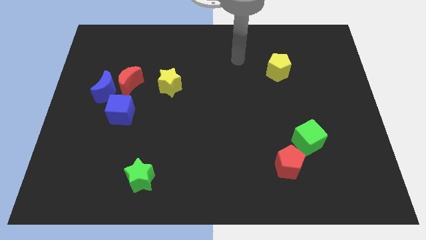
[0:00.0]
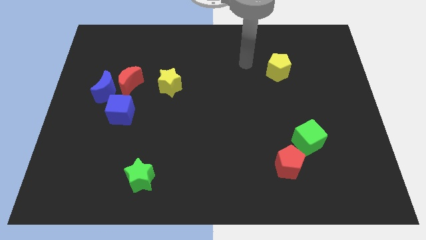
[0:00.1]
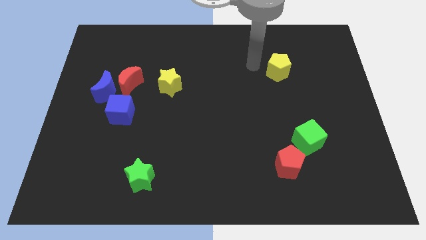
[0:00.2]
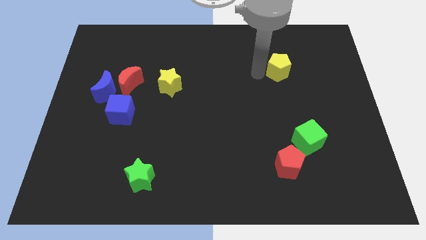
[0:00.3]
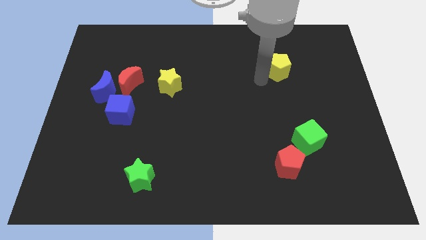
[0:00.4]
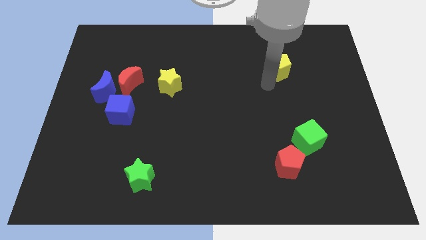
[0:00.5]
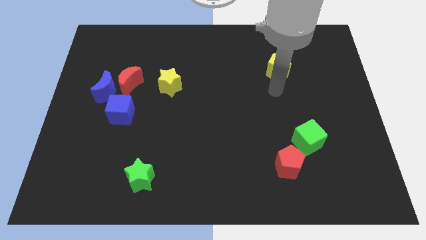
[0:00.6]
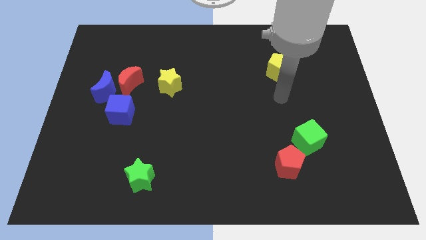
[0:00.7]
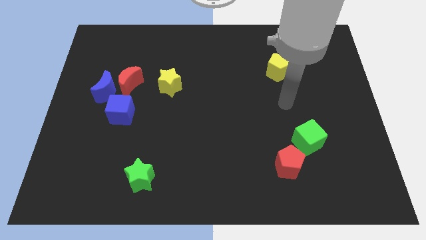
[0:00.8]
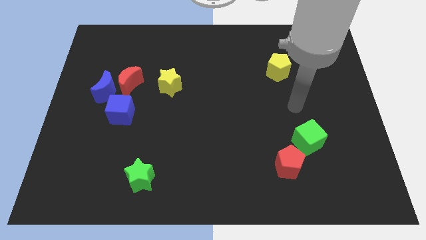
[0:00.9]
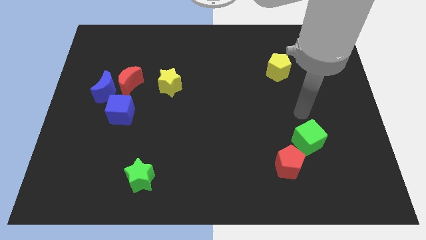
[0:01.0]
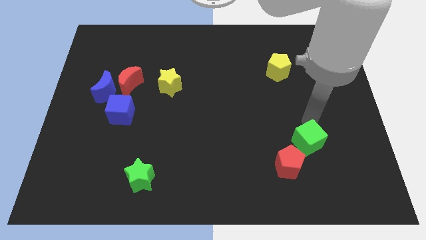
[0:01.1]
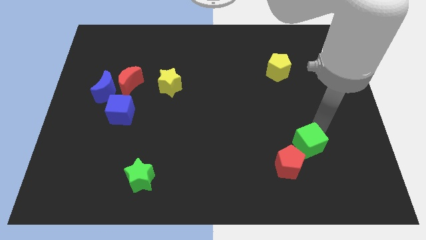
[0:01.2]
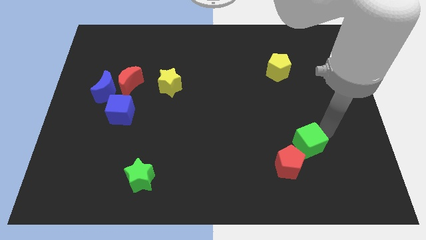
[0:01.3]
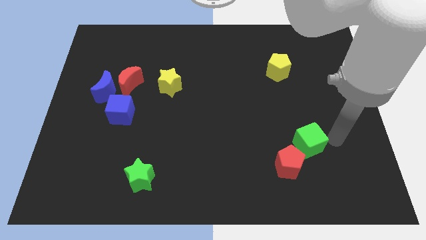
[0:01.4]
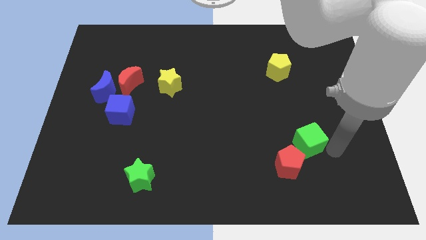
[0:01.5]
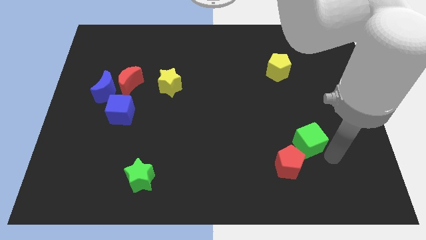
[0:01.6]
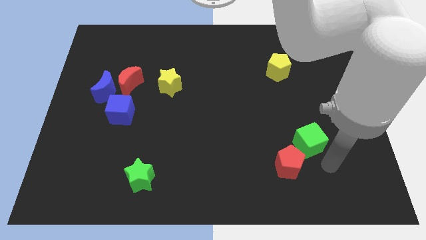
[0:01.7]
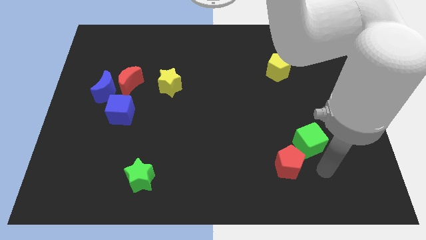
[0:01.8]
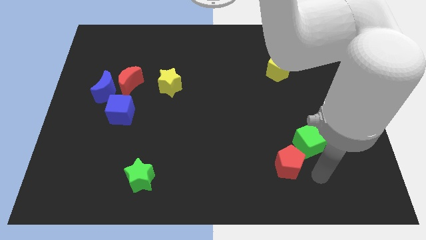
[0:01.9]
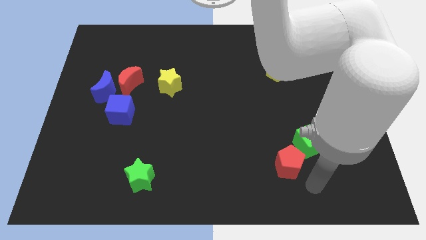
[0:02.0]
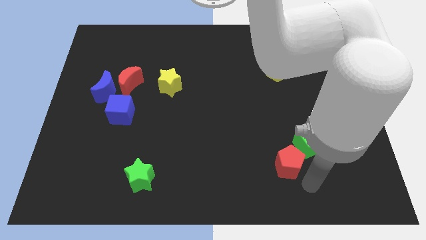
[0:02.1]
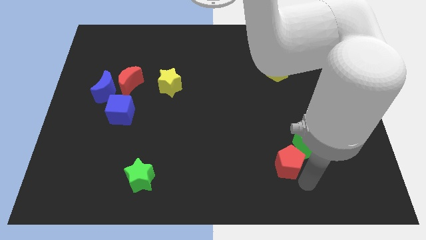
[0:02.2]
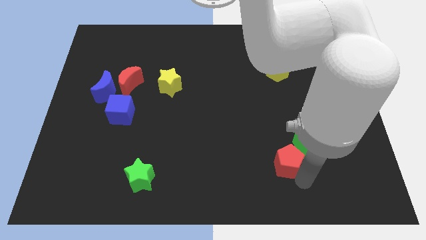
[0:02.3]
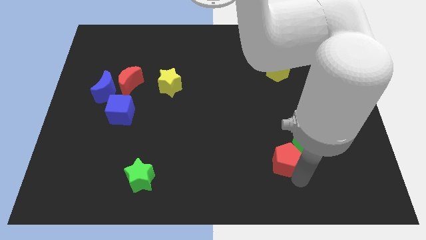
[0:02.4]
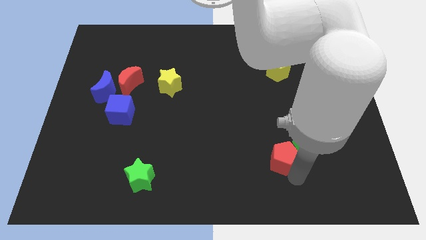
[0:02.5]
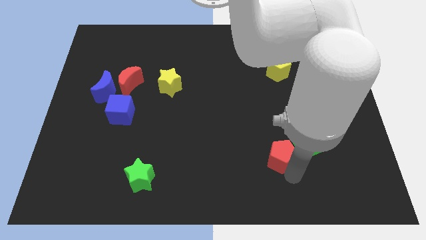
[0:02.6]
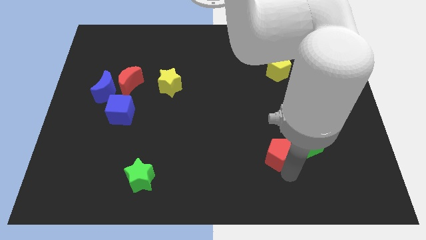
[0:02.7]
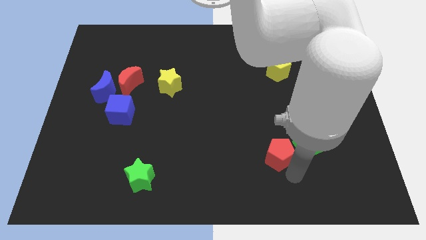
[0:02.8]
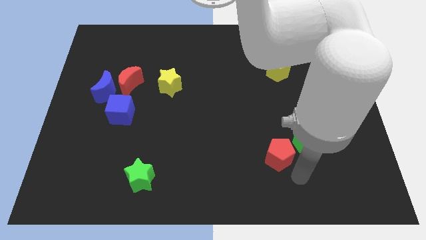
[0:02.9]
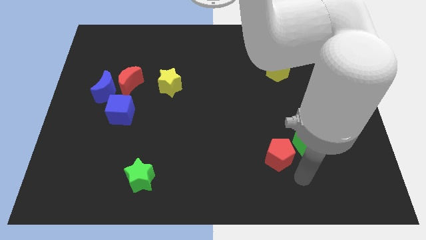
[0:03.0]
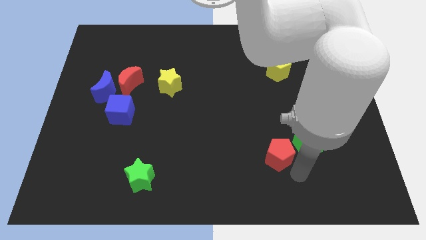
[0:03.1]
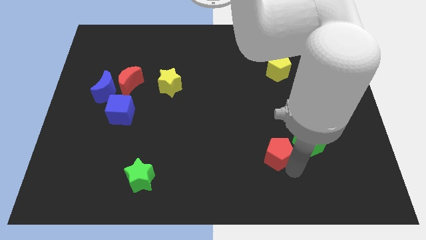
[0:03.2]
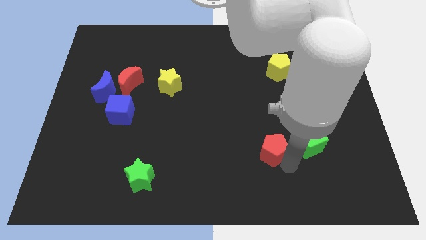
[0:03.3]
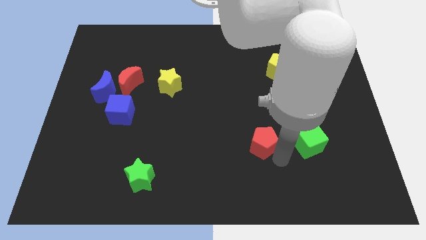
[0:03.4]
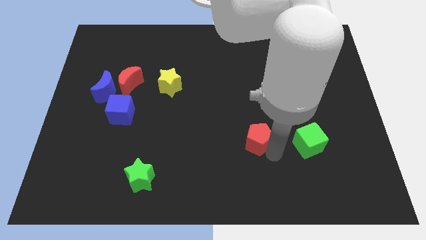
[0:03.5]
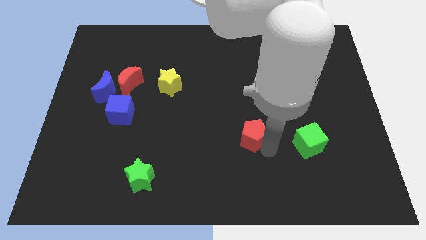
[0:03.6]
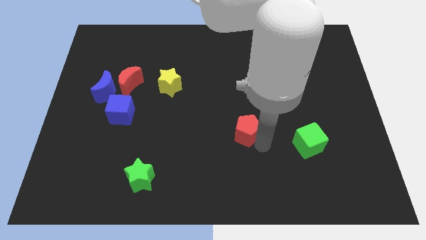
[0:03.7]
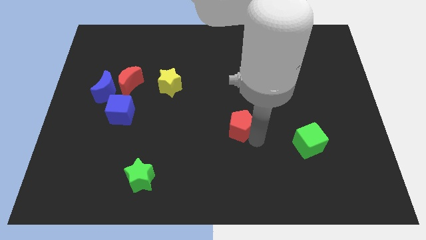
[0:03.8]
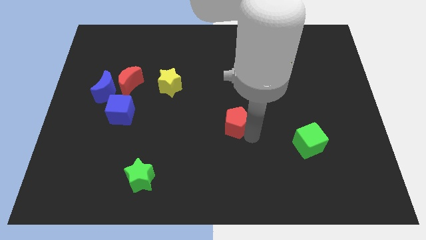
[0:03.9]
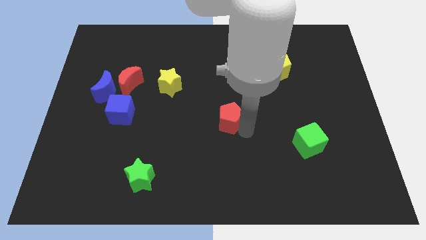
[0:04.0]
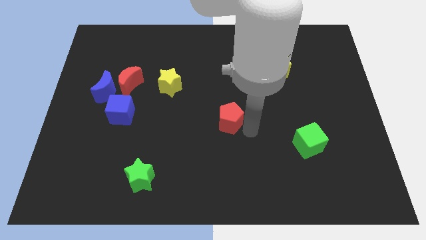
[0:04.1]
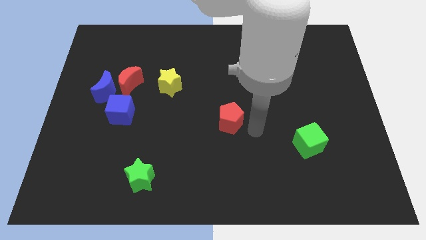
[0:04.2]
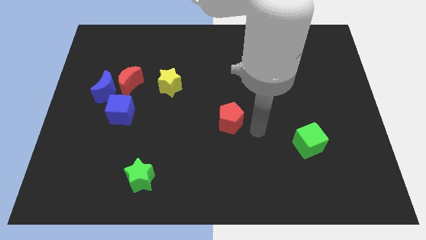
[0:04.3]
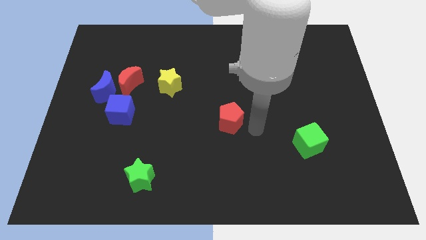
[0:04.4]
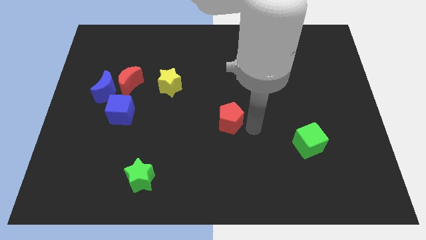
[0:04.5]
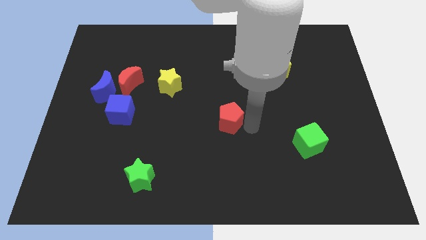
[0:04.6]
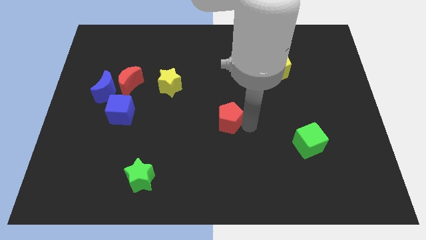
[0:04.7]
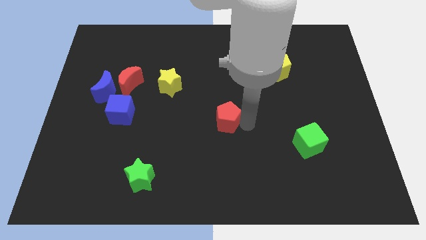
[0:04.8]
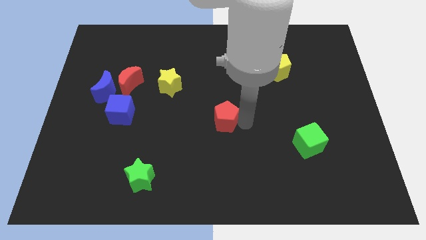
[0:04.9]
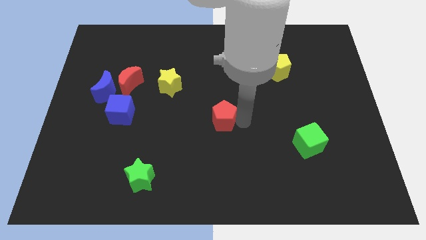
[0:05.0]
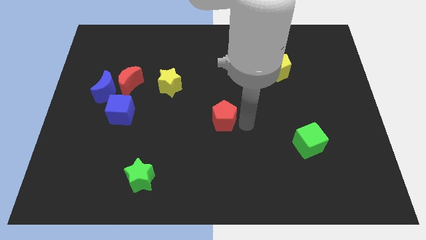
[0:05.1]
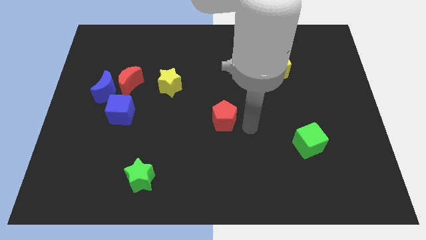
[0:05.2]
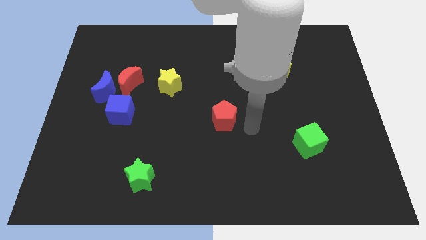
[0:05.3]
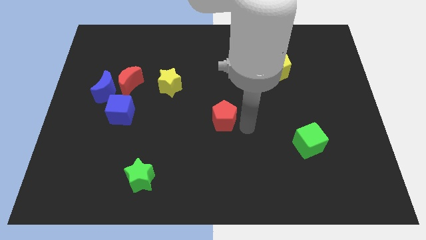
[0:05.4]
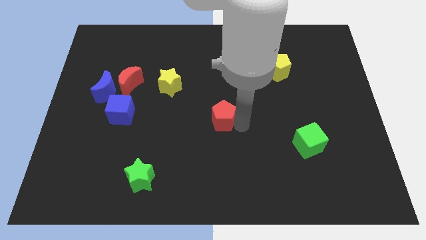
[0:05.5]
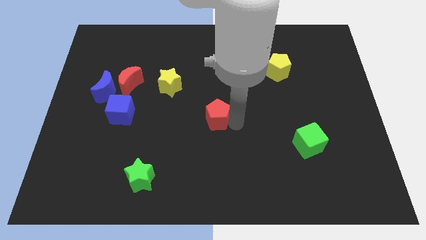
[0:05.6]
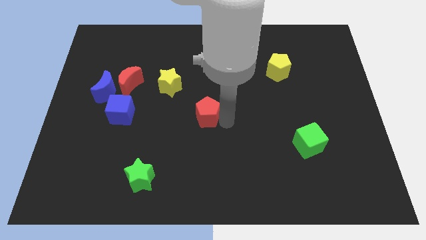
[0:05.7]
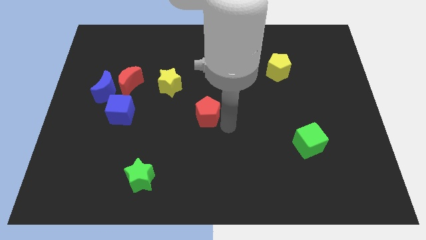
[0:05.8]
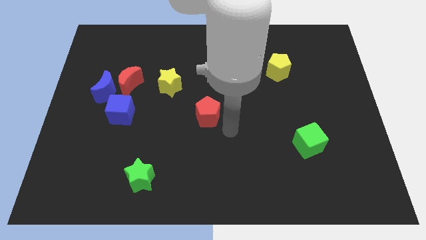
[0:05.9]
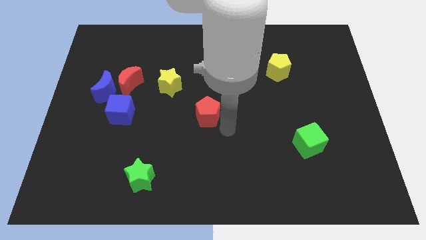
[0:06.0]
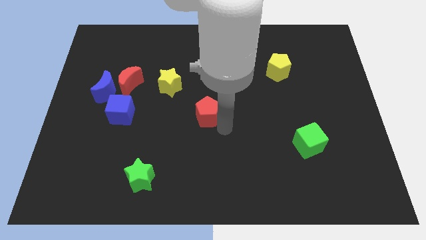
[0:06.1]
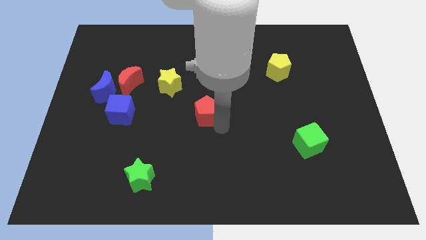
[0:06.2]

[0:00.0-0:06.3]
push the red pentagon to the bottom right side of the yellow star

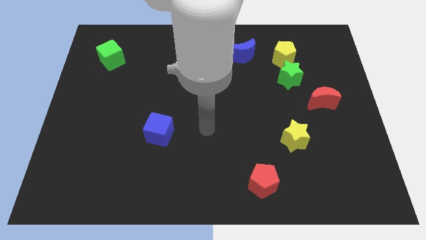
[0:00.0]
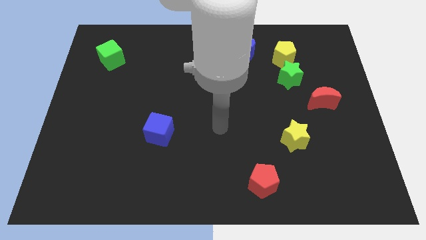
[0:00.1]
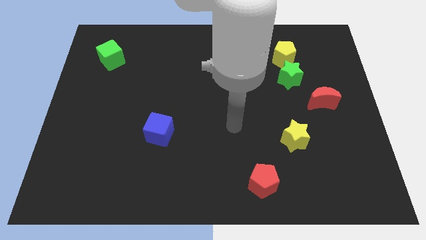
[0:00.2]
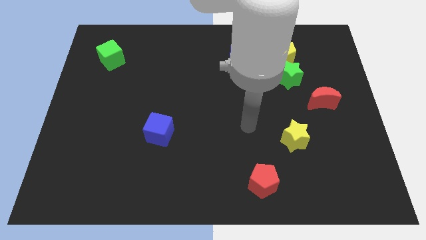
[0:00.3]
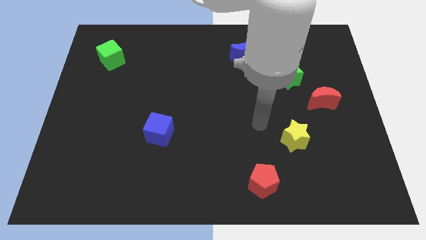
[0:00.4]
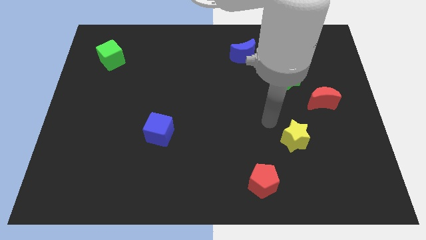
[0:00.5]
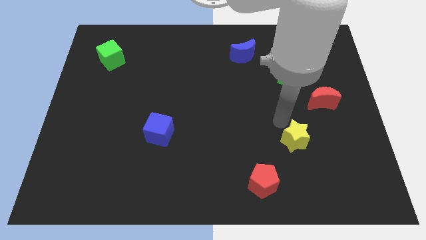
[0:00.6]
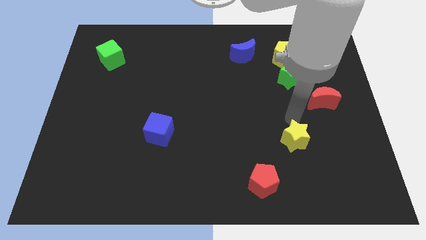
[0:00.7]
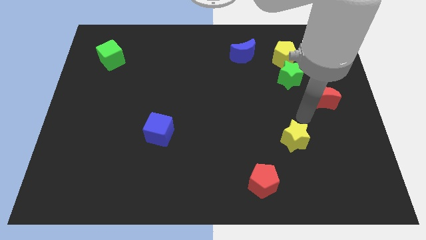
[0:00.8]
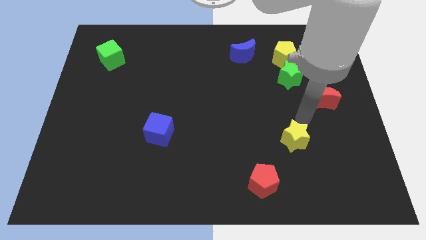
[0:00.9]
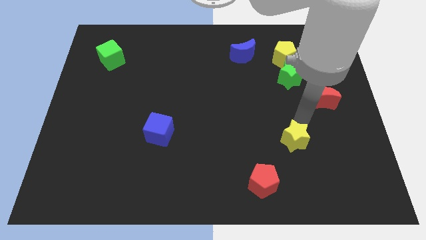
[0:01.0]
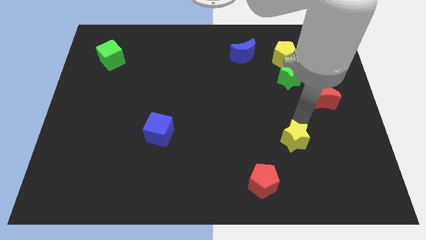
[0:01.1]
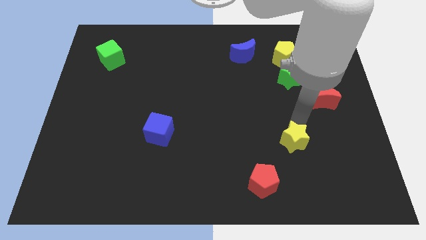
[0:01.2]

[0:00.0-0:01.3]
move the yellow star to the top right of the red pentagon
